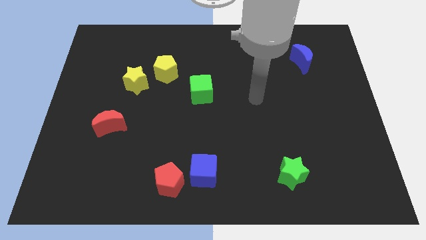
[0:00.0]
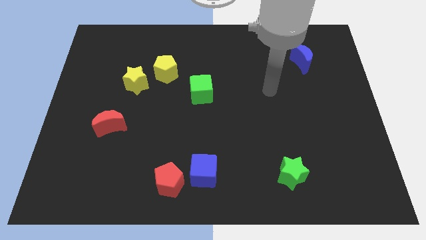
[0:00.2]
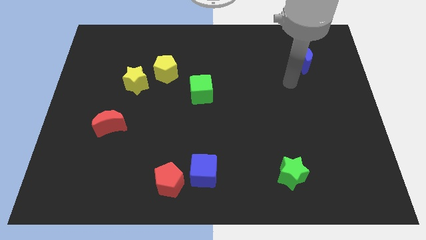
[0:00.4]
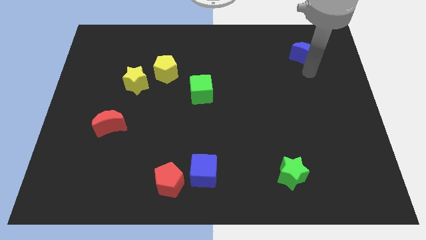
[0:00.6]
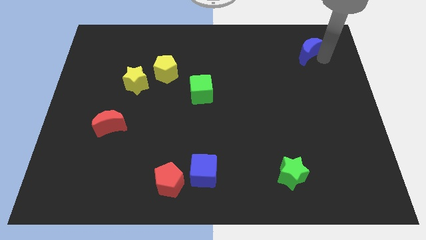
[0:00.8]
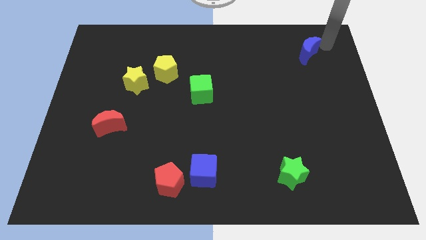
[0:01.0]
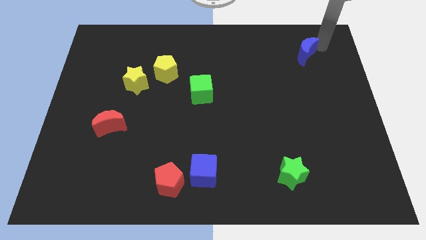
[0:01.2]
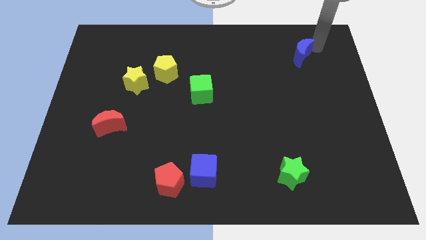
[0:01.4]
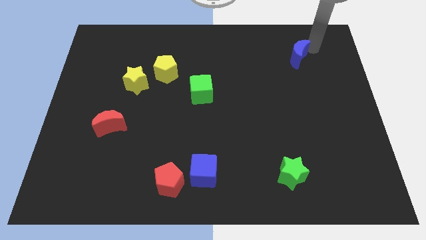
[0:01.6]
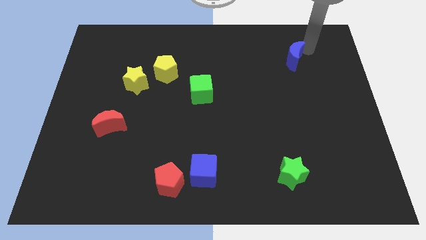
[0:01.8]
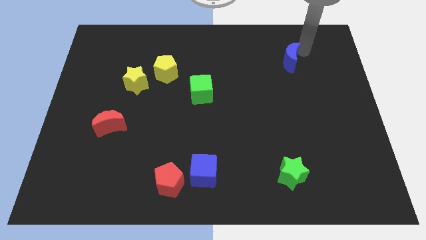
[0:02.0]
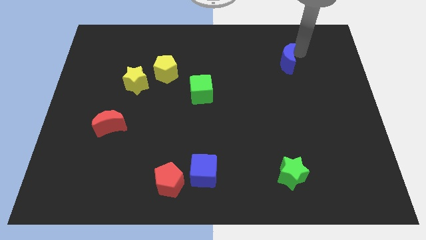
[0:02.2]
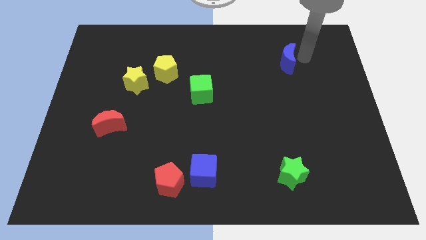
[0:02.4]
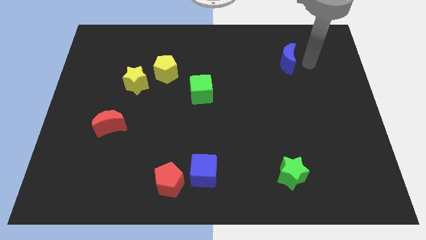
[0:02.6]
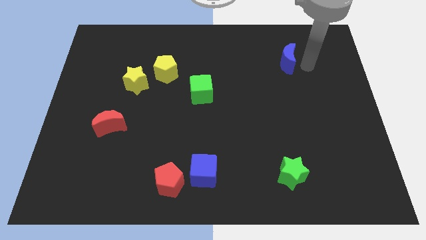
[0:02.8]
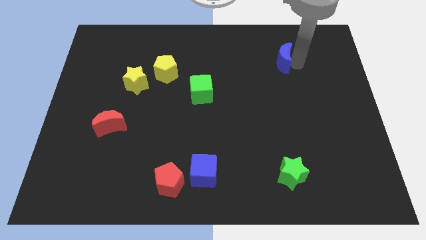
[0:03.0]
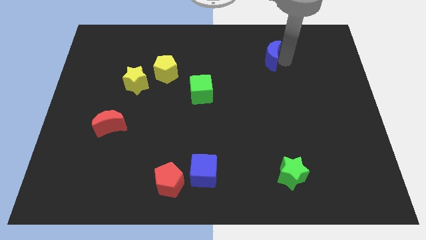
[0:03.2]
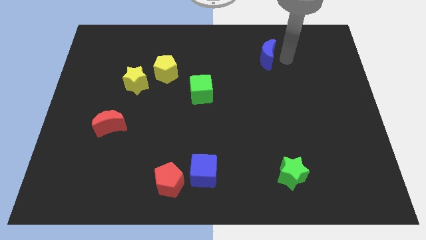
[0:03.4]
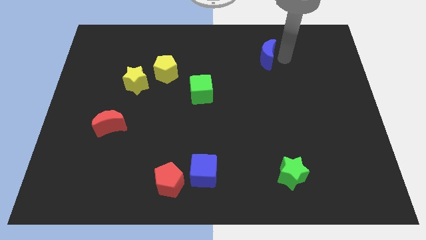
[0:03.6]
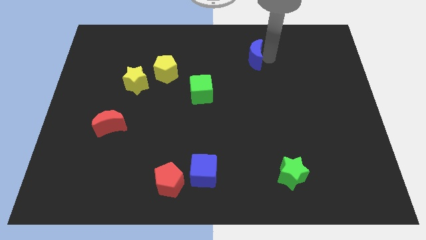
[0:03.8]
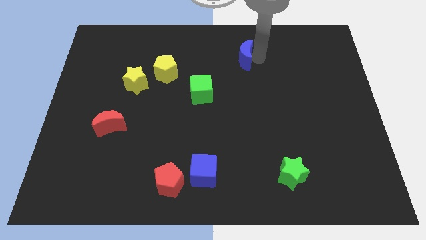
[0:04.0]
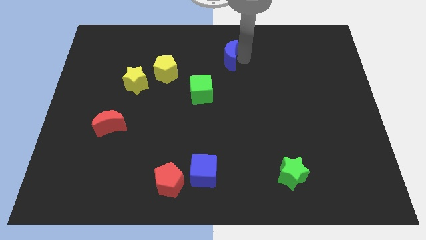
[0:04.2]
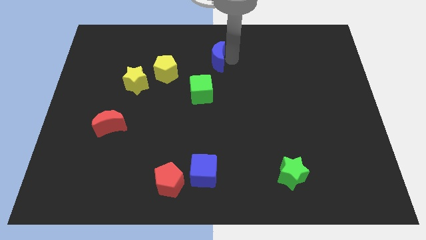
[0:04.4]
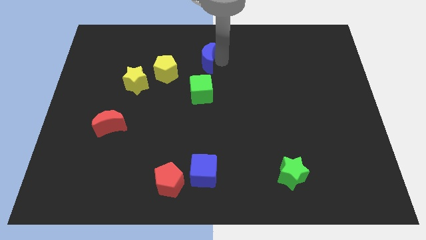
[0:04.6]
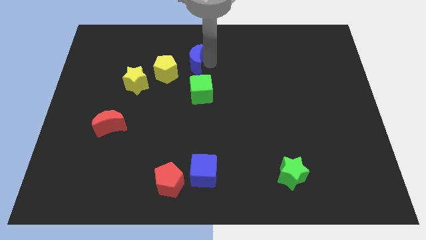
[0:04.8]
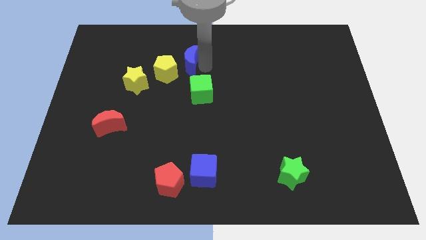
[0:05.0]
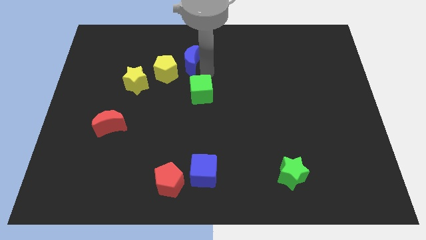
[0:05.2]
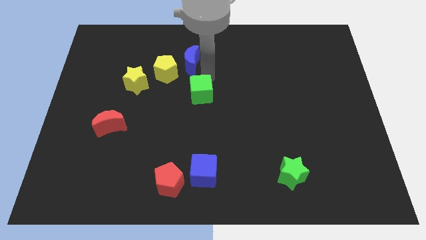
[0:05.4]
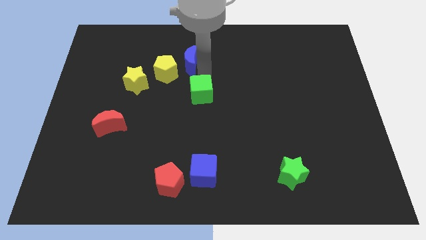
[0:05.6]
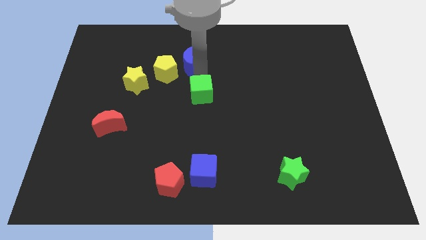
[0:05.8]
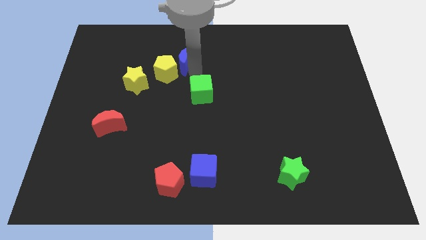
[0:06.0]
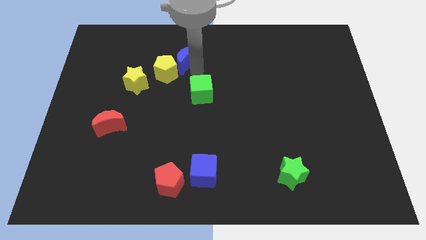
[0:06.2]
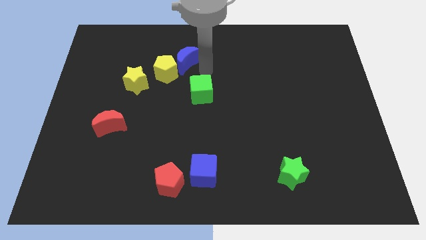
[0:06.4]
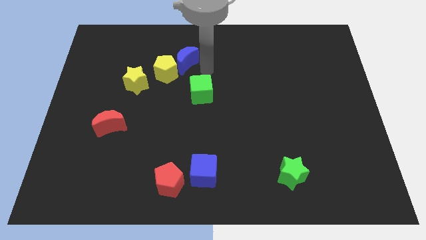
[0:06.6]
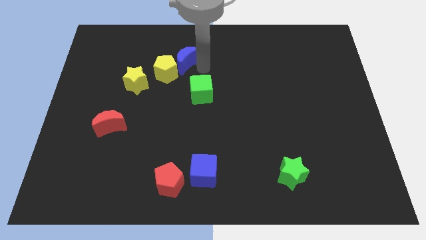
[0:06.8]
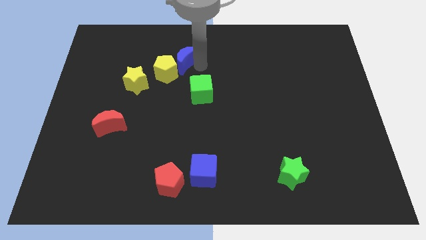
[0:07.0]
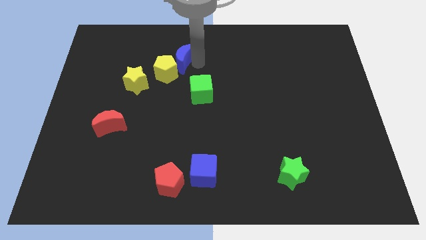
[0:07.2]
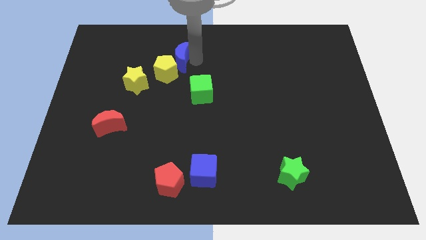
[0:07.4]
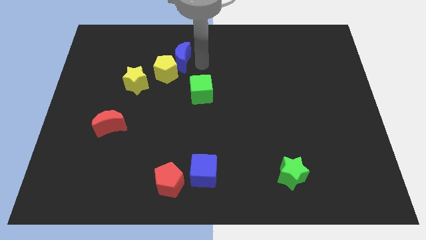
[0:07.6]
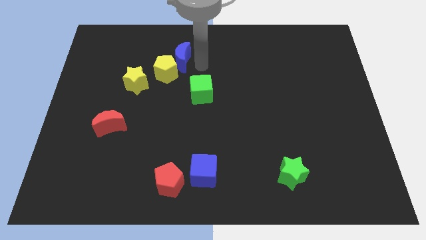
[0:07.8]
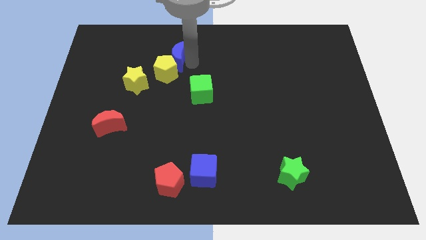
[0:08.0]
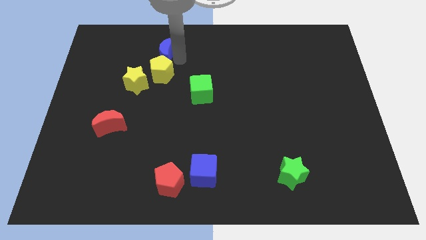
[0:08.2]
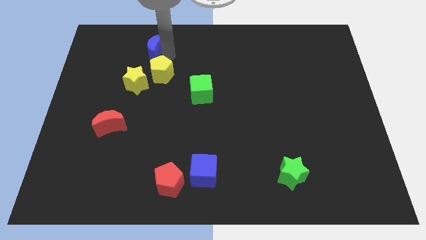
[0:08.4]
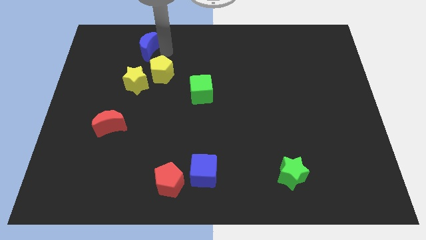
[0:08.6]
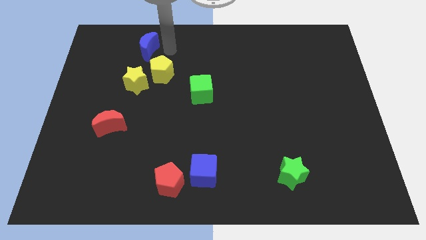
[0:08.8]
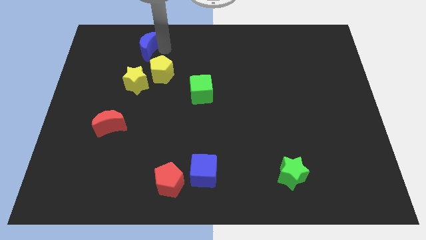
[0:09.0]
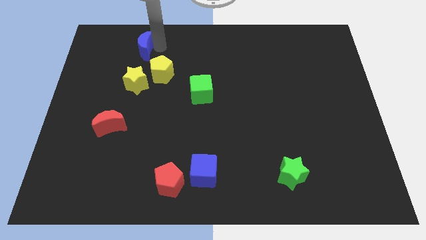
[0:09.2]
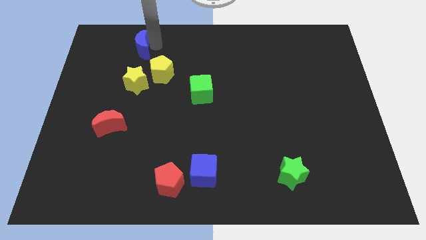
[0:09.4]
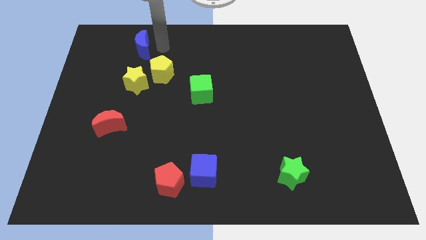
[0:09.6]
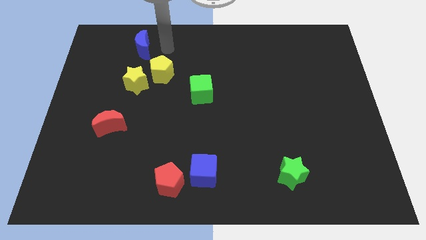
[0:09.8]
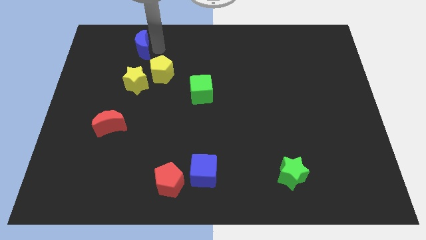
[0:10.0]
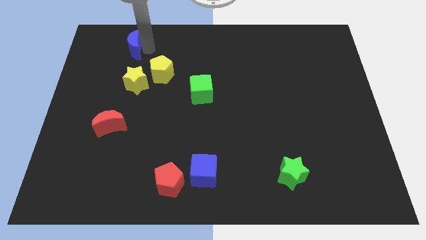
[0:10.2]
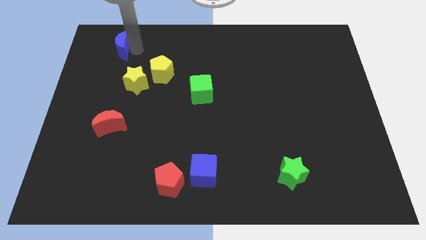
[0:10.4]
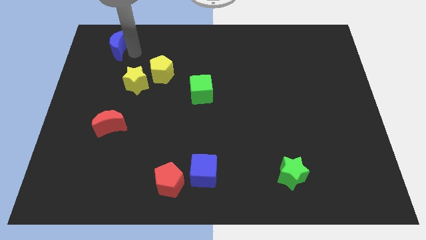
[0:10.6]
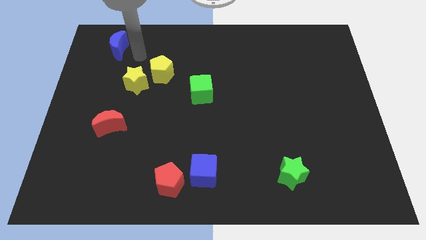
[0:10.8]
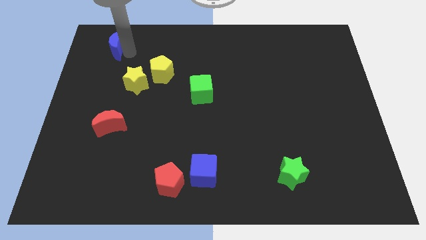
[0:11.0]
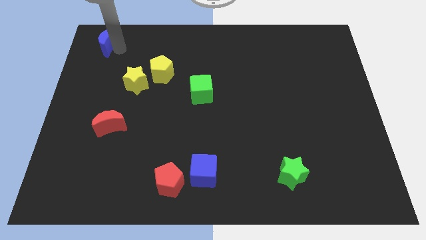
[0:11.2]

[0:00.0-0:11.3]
move the blue moon to the top left of the board
